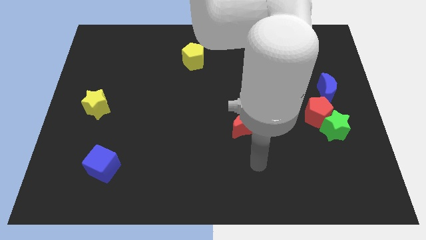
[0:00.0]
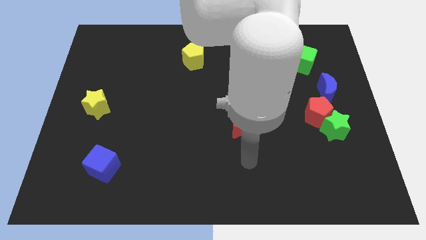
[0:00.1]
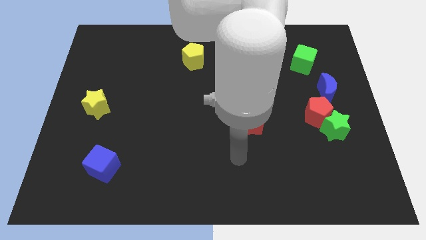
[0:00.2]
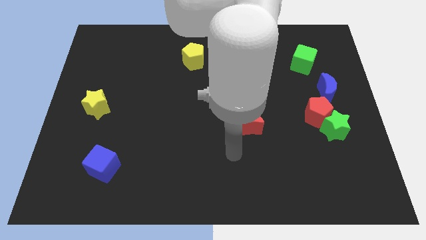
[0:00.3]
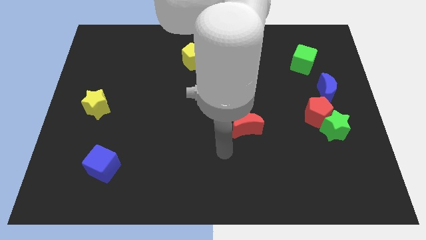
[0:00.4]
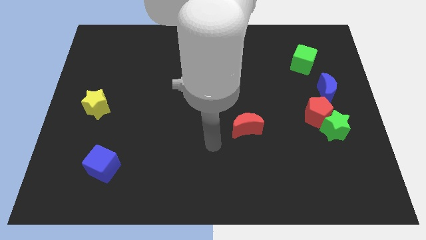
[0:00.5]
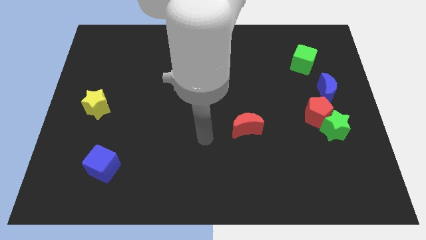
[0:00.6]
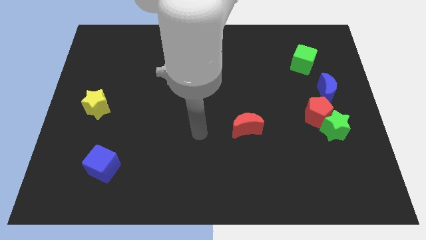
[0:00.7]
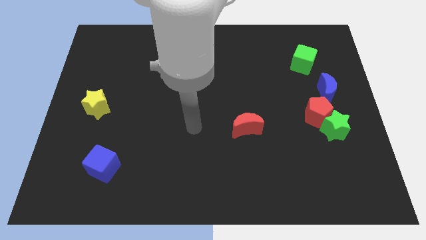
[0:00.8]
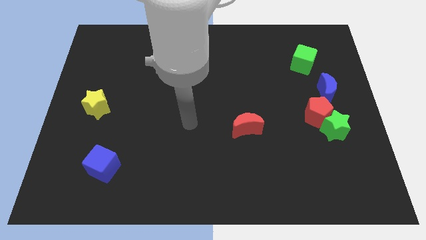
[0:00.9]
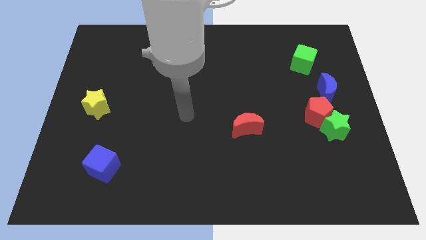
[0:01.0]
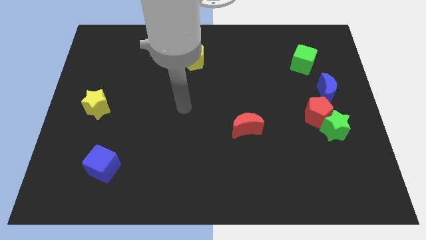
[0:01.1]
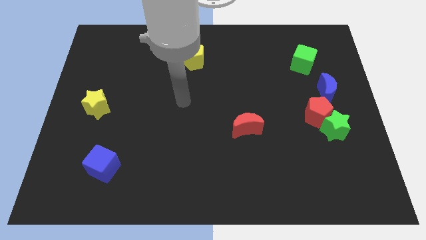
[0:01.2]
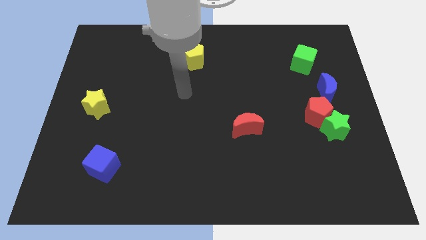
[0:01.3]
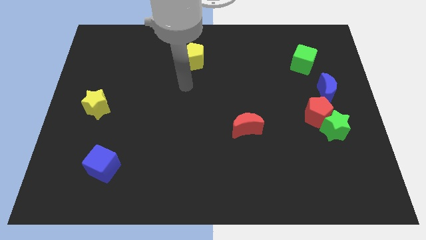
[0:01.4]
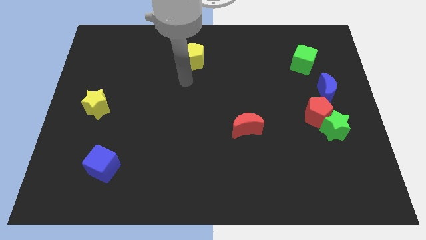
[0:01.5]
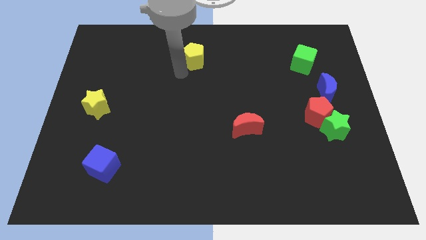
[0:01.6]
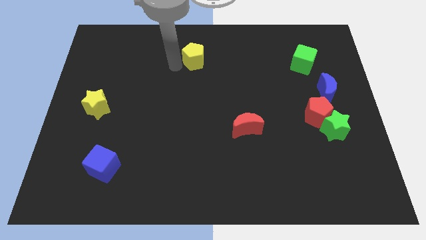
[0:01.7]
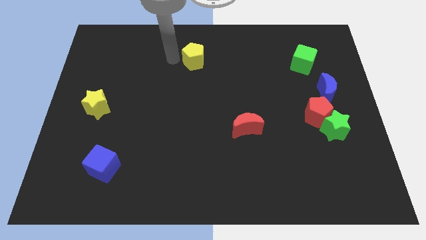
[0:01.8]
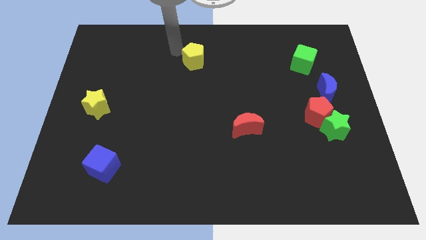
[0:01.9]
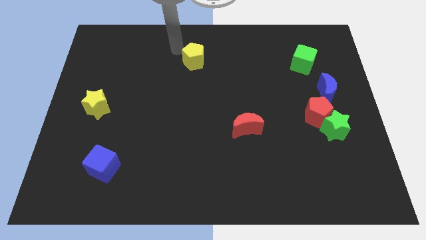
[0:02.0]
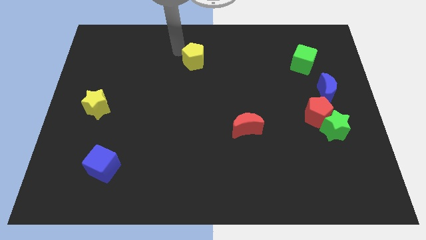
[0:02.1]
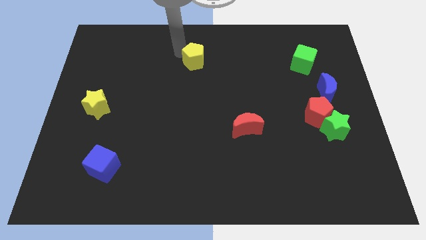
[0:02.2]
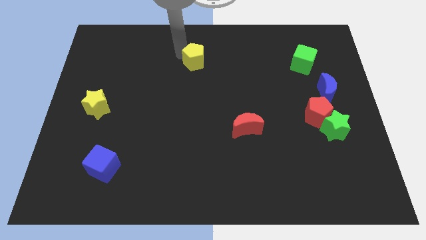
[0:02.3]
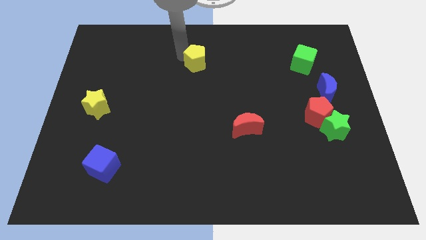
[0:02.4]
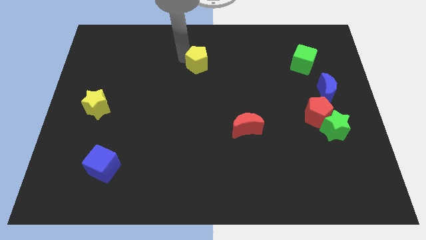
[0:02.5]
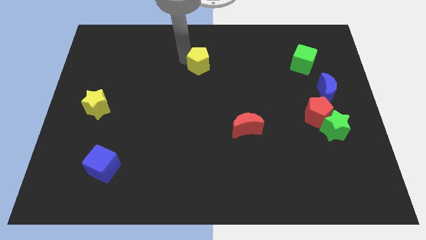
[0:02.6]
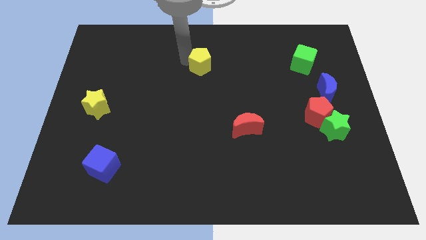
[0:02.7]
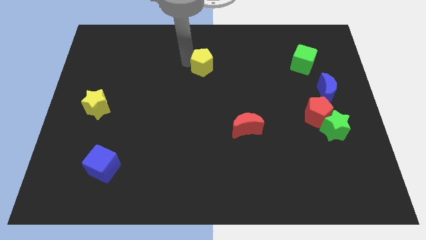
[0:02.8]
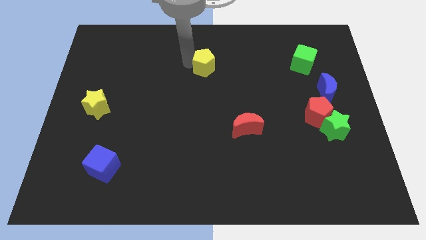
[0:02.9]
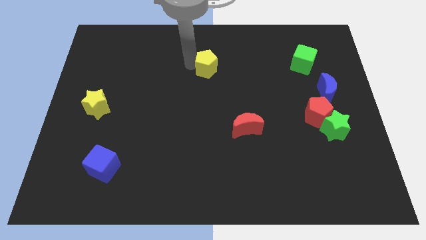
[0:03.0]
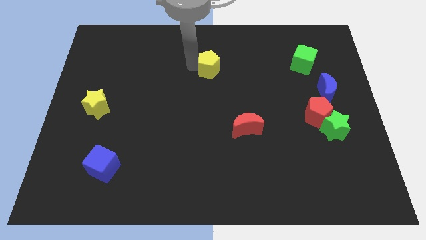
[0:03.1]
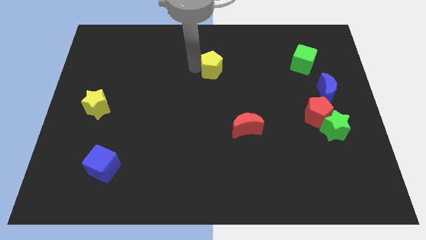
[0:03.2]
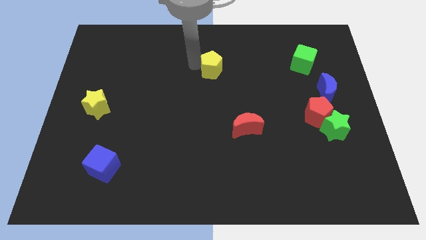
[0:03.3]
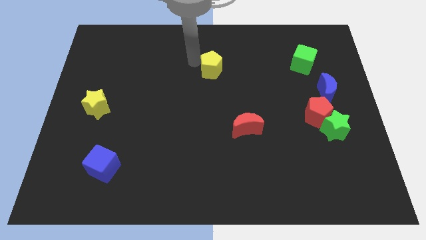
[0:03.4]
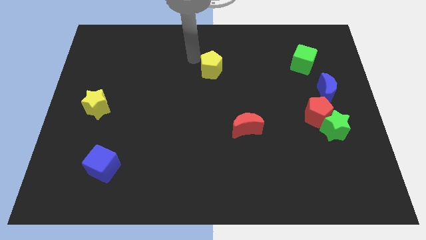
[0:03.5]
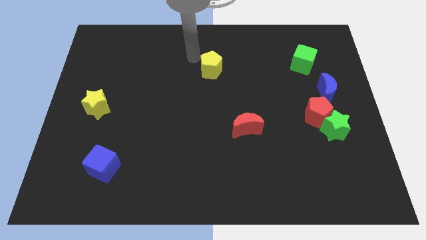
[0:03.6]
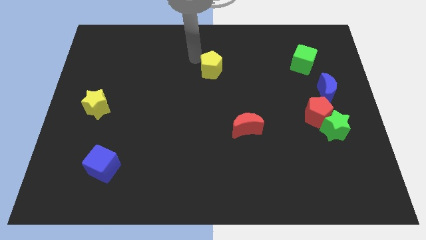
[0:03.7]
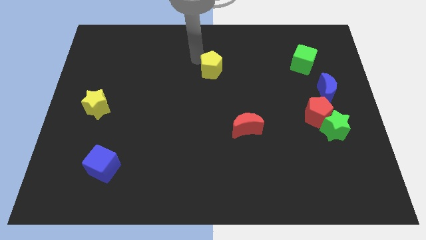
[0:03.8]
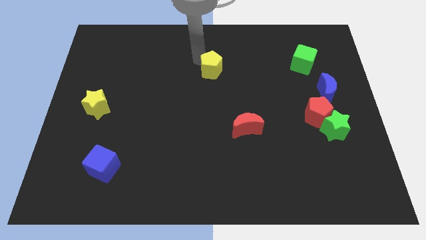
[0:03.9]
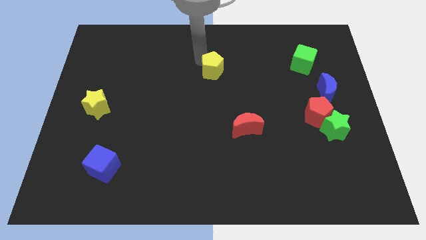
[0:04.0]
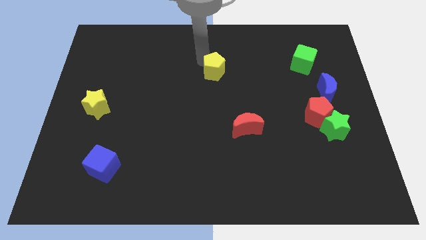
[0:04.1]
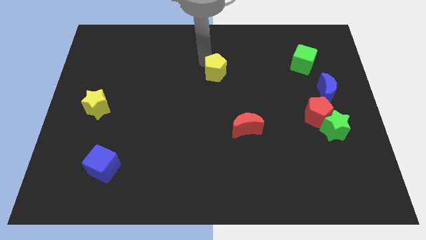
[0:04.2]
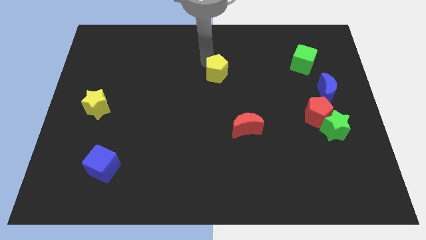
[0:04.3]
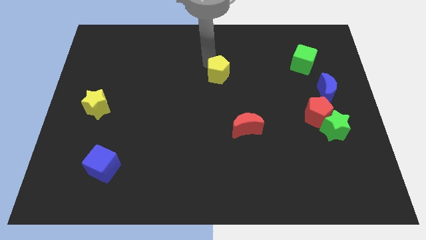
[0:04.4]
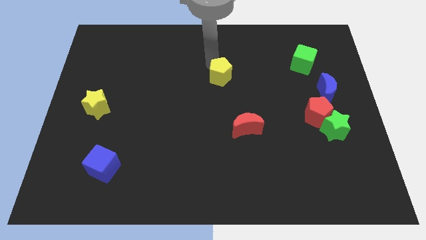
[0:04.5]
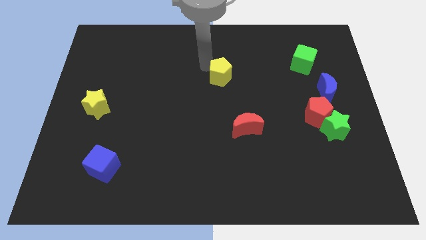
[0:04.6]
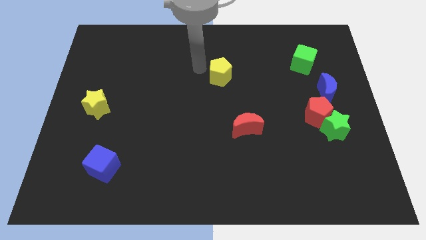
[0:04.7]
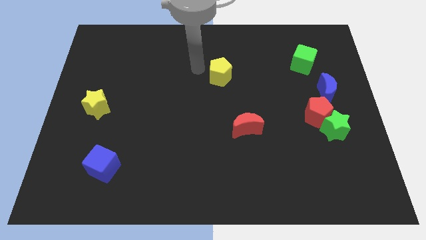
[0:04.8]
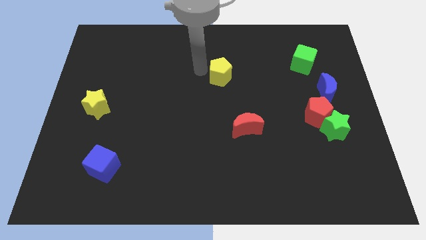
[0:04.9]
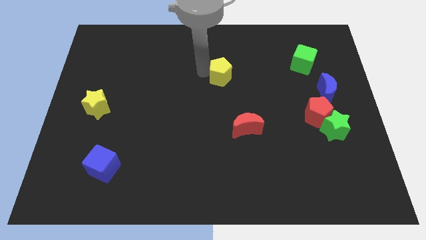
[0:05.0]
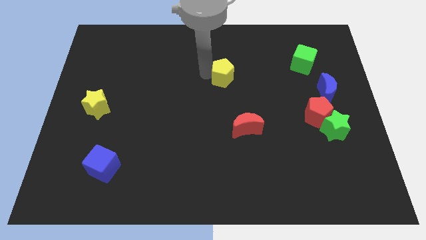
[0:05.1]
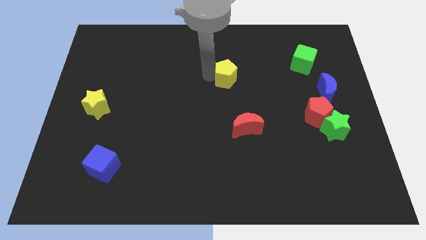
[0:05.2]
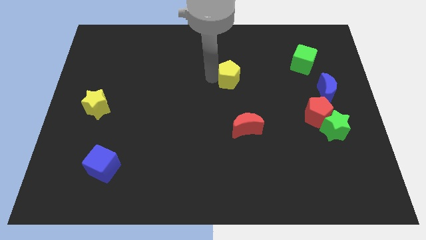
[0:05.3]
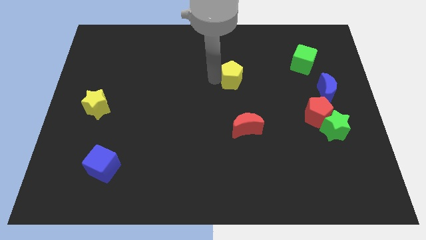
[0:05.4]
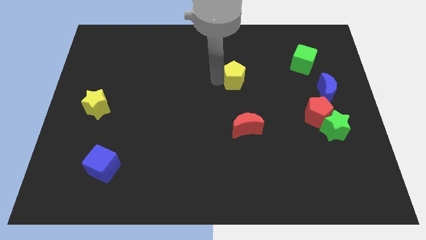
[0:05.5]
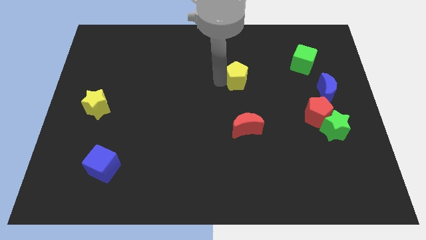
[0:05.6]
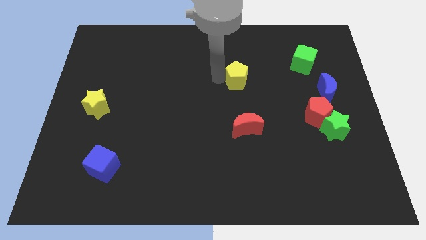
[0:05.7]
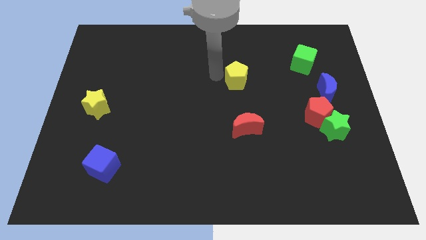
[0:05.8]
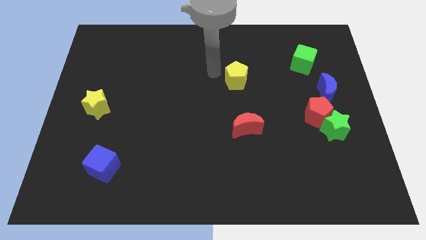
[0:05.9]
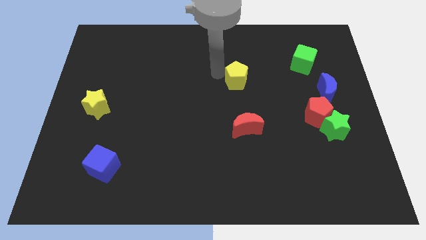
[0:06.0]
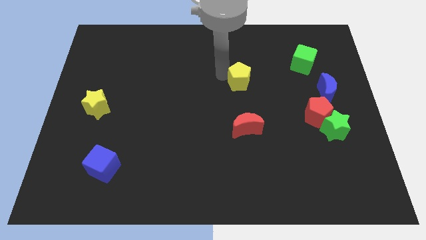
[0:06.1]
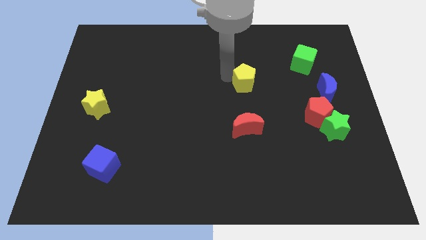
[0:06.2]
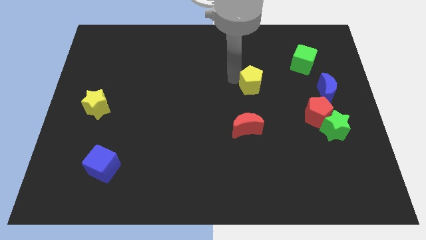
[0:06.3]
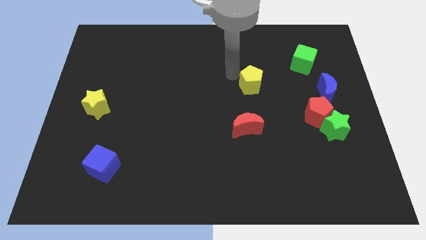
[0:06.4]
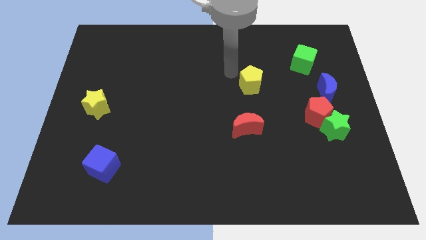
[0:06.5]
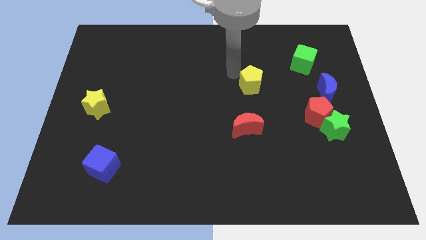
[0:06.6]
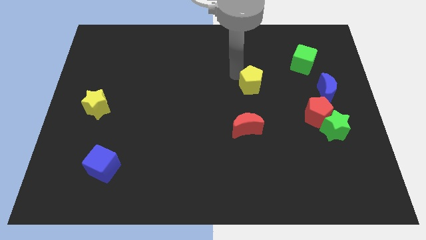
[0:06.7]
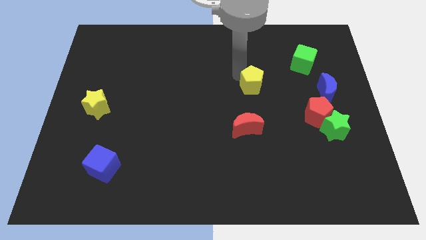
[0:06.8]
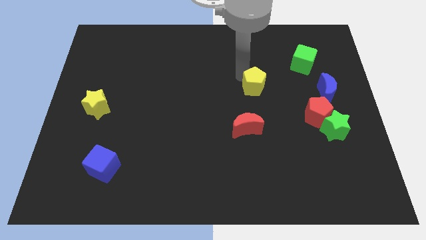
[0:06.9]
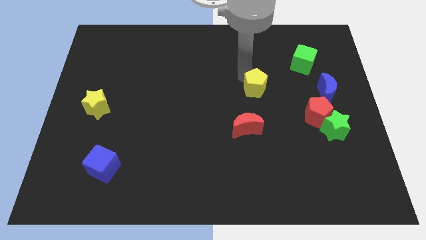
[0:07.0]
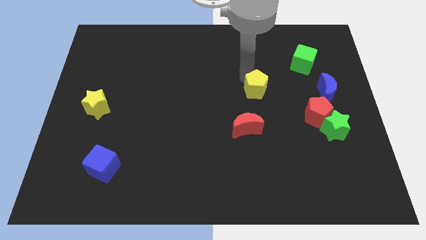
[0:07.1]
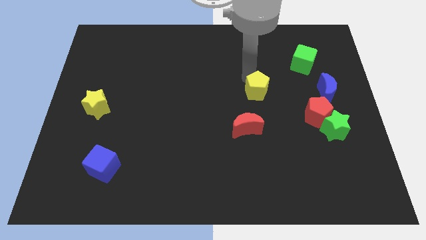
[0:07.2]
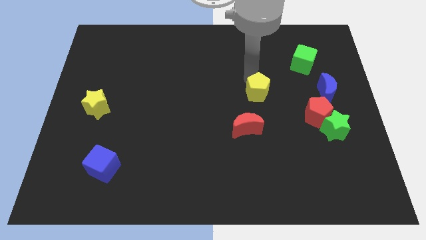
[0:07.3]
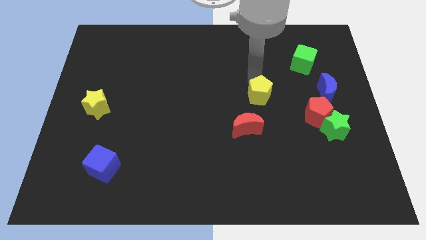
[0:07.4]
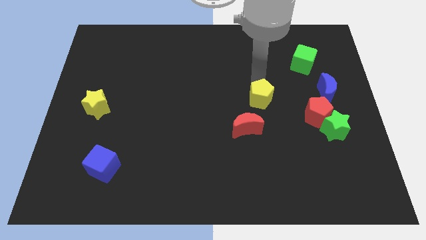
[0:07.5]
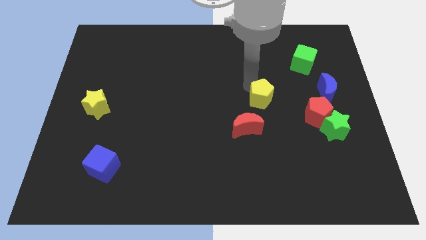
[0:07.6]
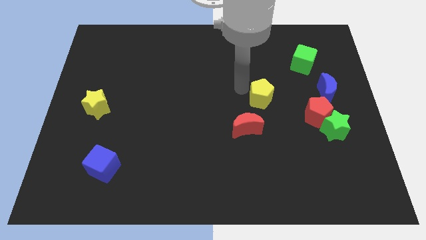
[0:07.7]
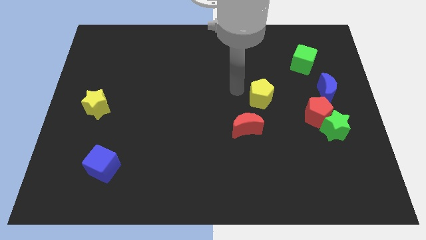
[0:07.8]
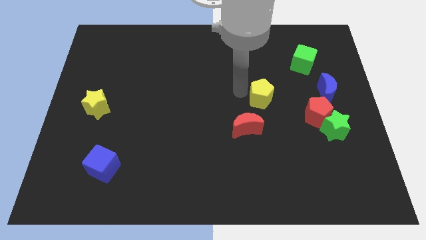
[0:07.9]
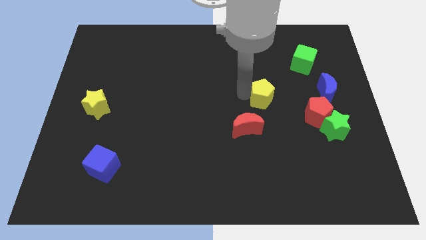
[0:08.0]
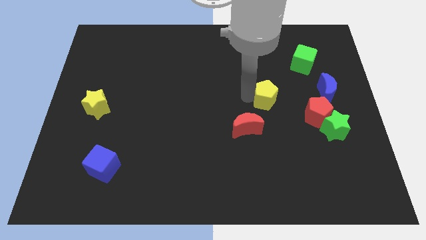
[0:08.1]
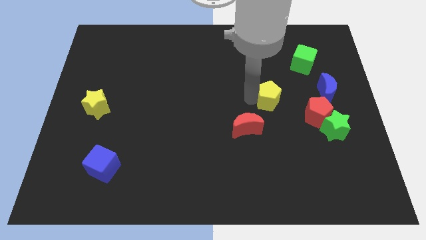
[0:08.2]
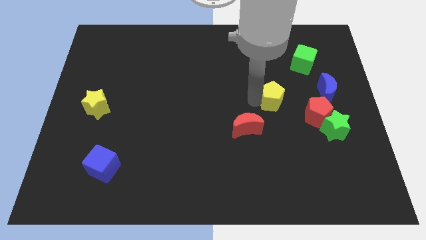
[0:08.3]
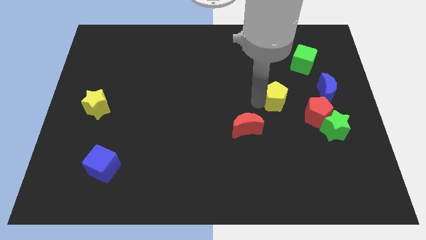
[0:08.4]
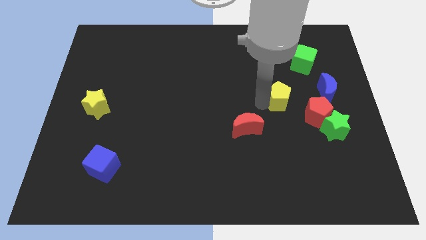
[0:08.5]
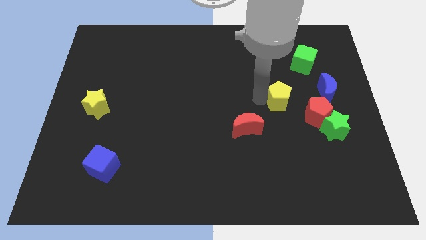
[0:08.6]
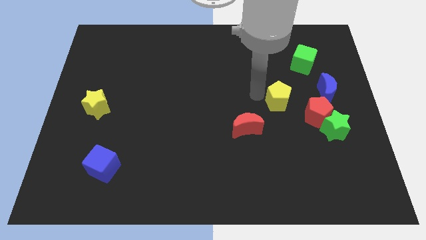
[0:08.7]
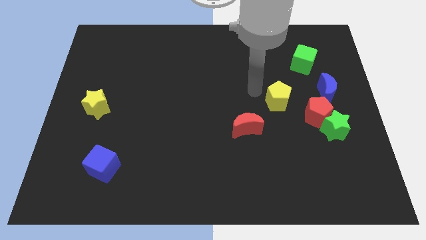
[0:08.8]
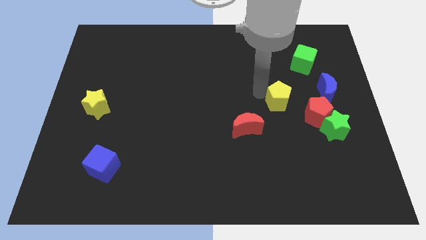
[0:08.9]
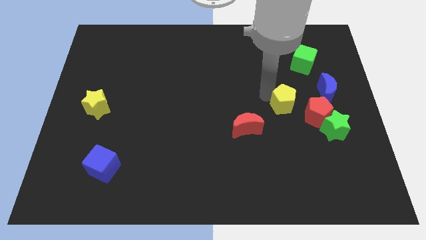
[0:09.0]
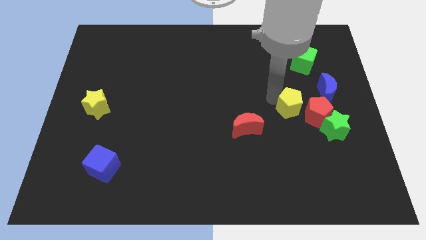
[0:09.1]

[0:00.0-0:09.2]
move the yellow pentagon to the top left of the green star
